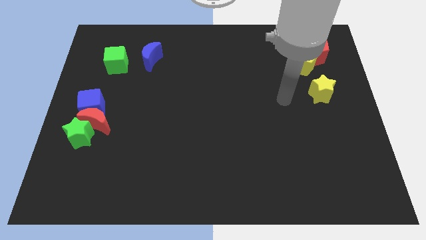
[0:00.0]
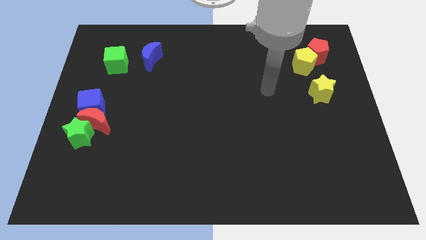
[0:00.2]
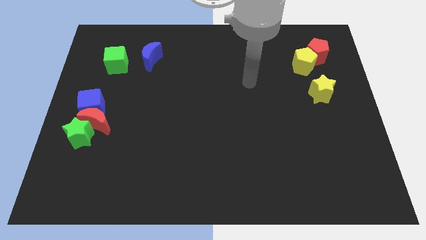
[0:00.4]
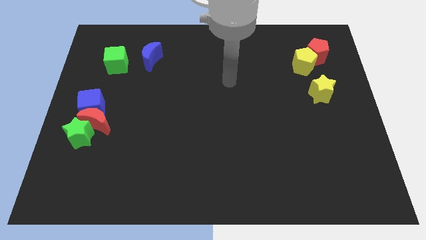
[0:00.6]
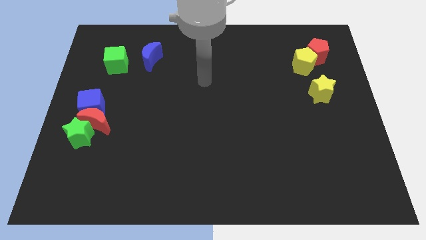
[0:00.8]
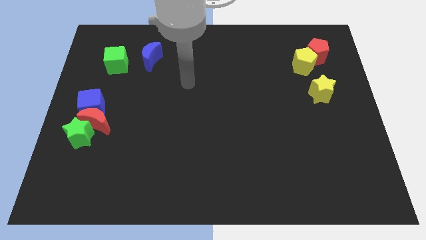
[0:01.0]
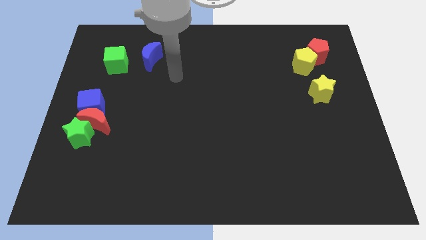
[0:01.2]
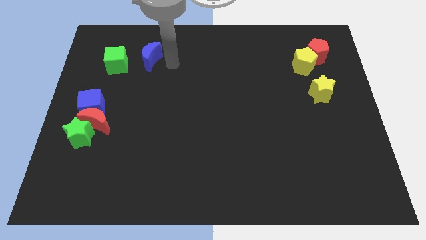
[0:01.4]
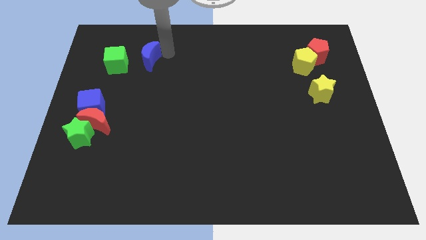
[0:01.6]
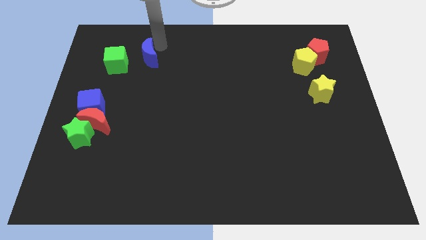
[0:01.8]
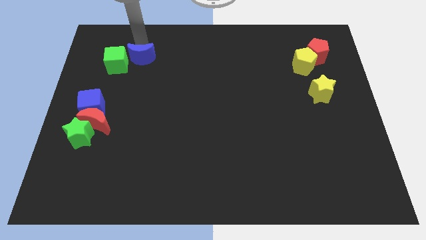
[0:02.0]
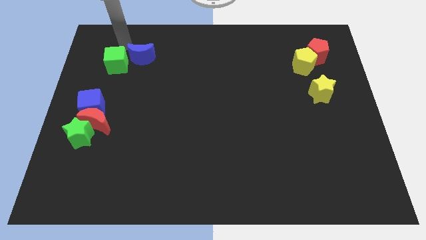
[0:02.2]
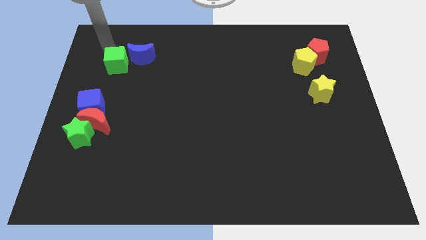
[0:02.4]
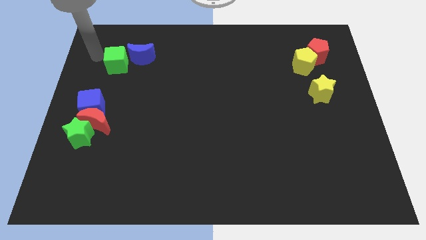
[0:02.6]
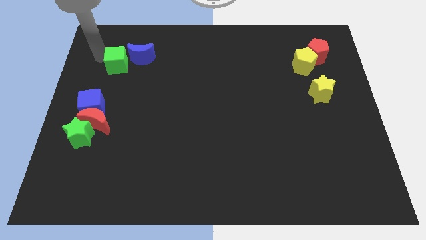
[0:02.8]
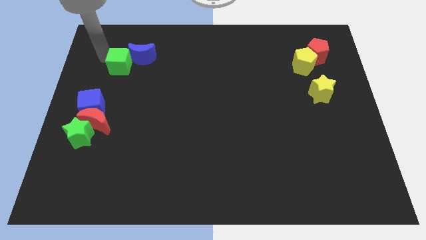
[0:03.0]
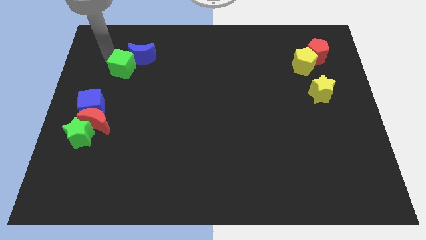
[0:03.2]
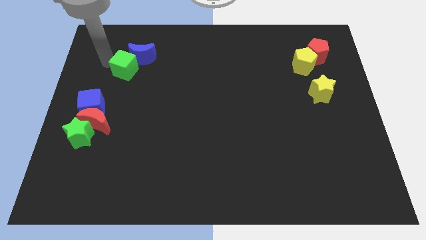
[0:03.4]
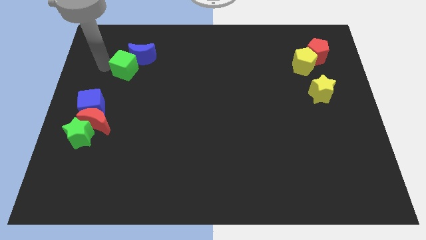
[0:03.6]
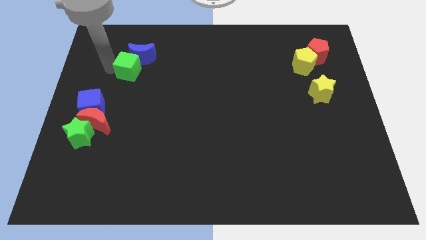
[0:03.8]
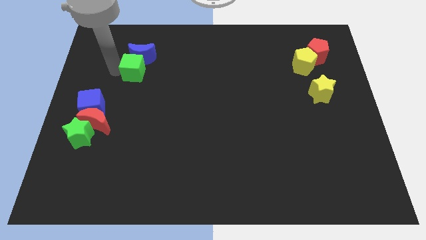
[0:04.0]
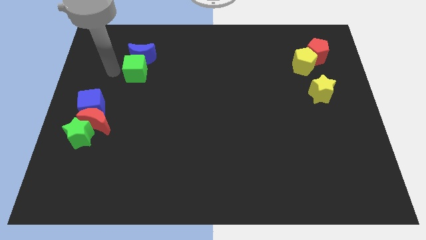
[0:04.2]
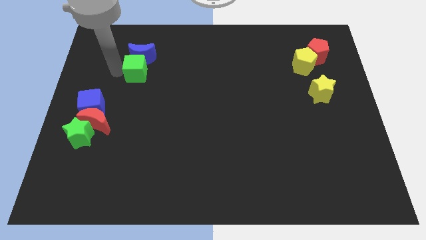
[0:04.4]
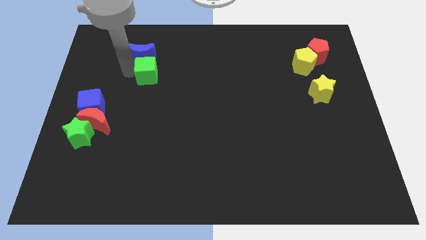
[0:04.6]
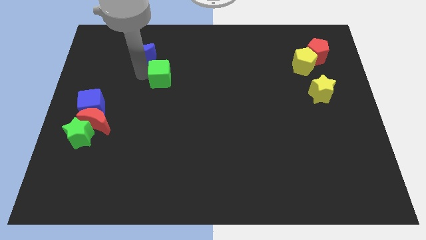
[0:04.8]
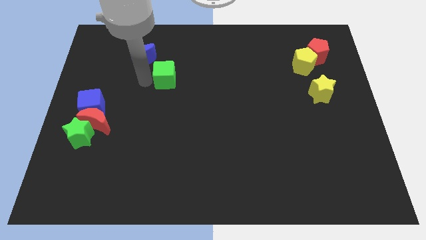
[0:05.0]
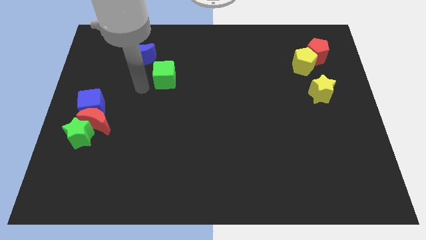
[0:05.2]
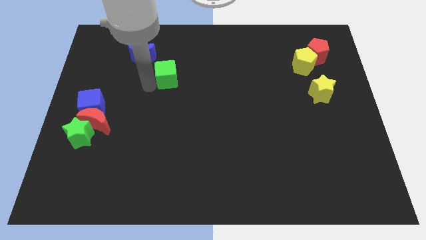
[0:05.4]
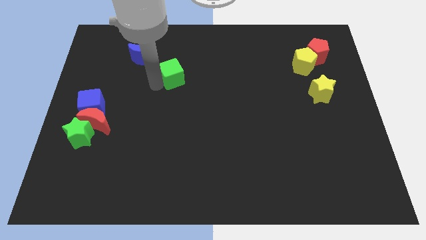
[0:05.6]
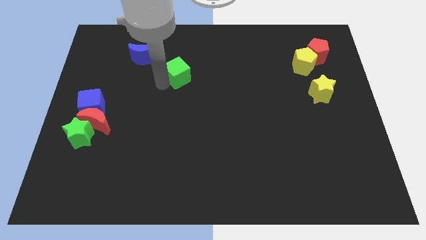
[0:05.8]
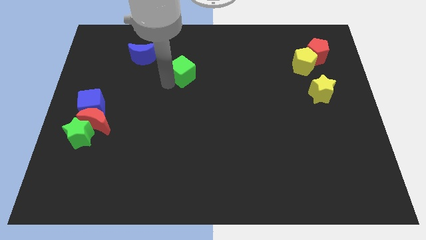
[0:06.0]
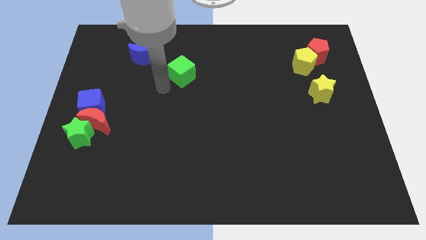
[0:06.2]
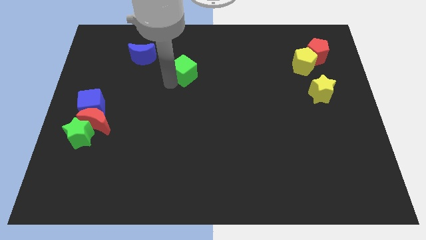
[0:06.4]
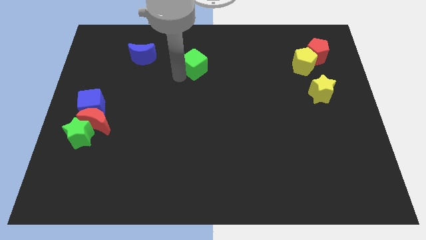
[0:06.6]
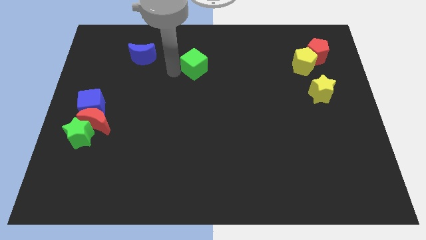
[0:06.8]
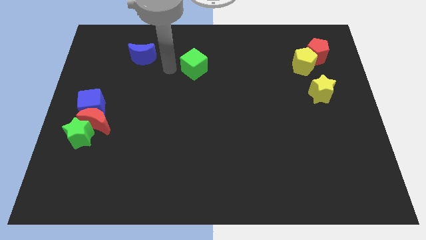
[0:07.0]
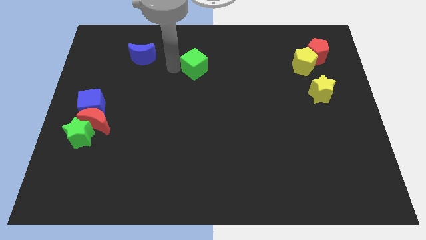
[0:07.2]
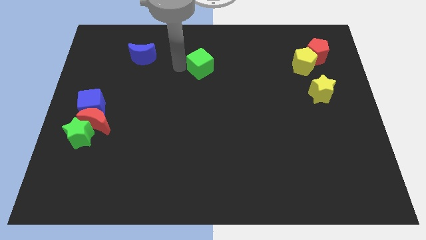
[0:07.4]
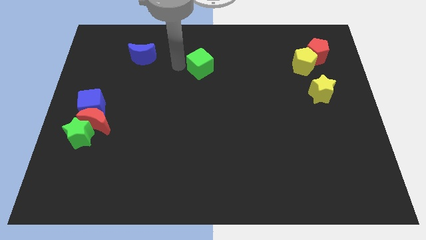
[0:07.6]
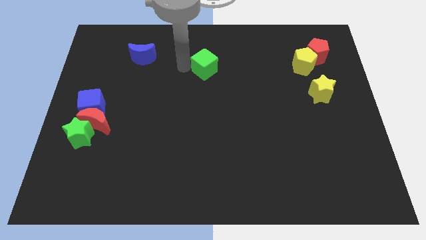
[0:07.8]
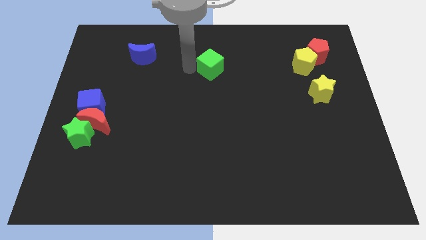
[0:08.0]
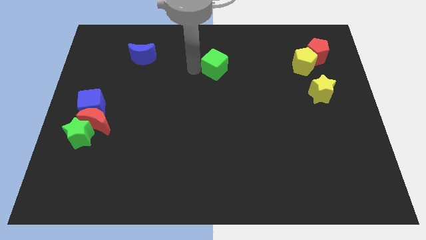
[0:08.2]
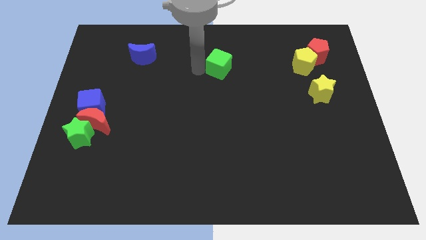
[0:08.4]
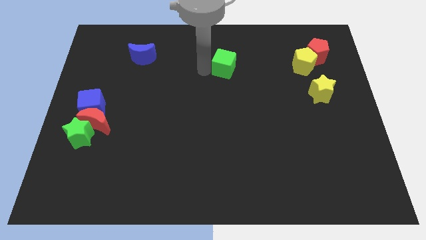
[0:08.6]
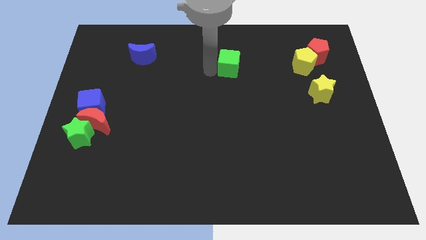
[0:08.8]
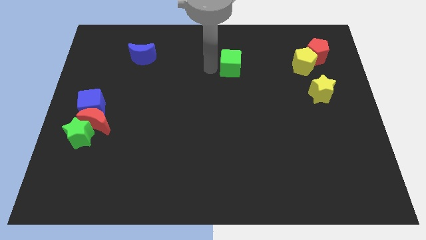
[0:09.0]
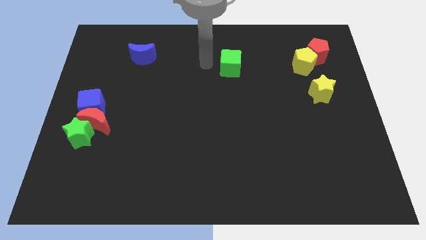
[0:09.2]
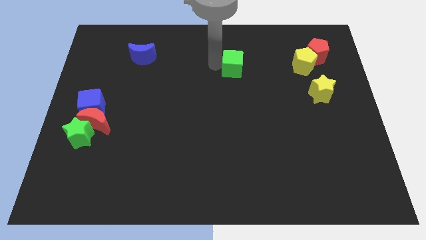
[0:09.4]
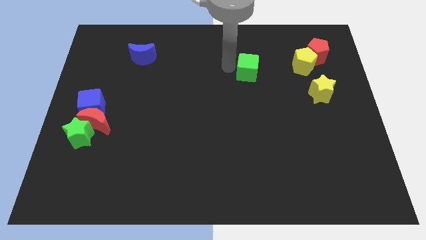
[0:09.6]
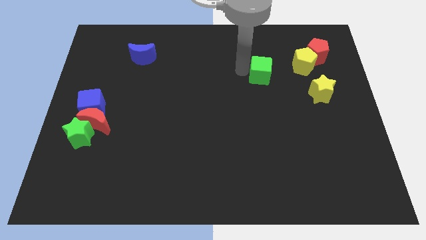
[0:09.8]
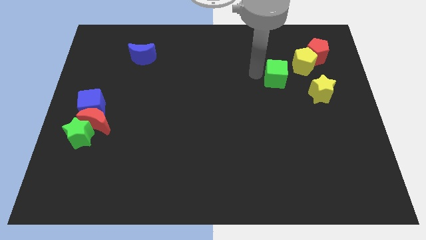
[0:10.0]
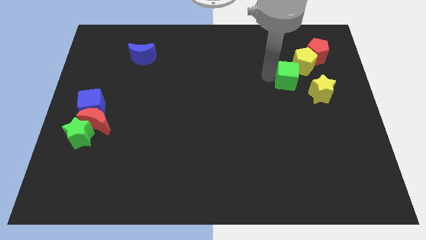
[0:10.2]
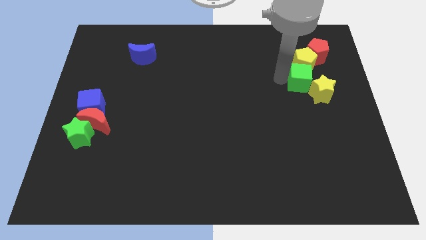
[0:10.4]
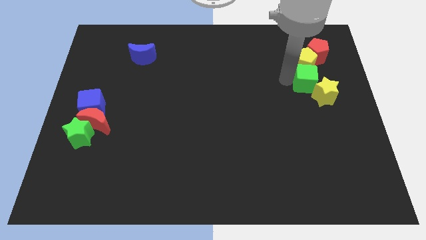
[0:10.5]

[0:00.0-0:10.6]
slide the green cube to the bottom right side of the yellow pentagon

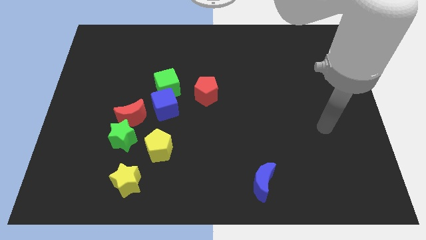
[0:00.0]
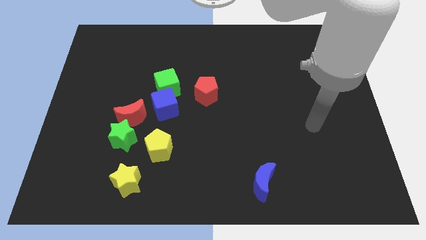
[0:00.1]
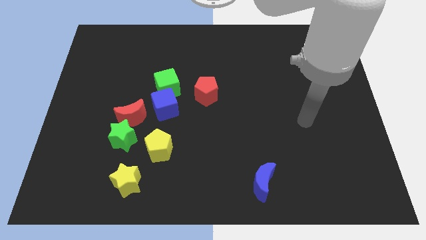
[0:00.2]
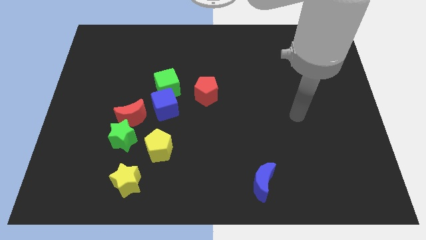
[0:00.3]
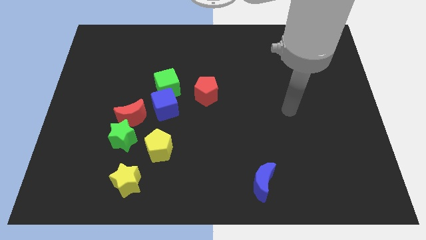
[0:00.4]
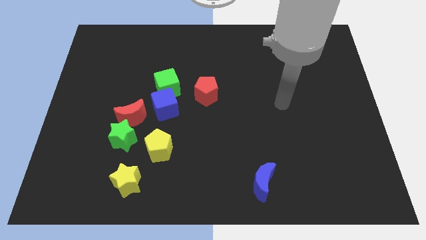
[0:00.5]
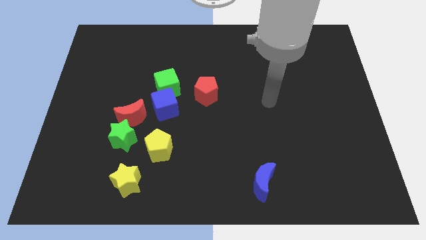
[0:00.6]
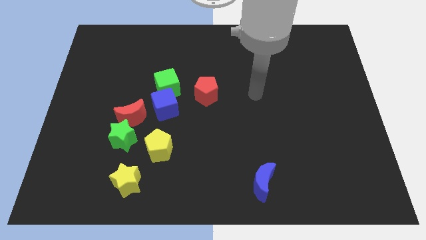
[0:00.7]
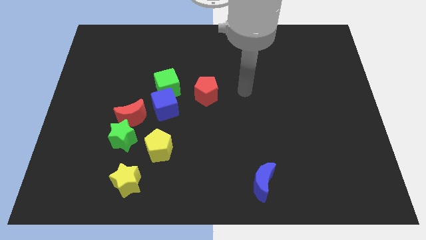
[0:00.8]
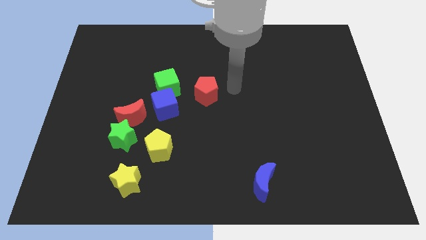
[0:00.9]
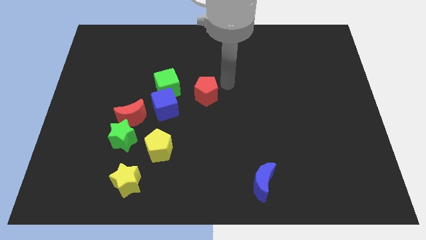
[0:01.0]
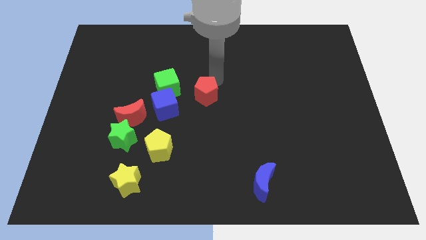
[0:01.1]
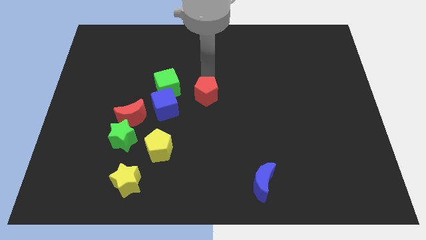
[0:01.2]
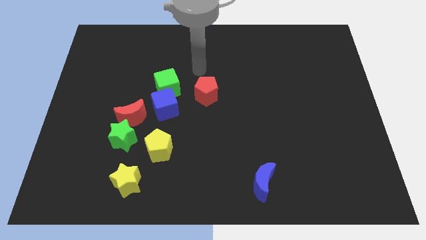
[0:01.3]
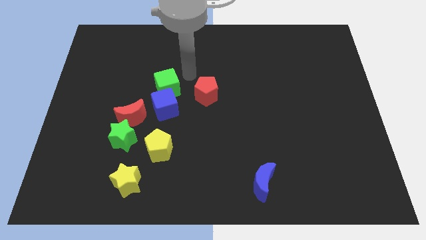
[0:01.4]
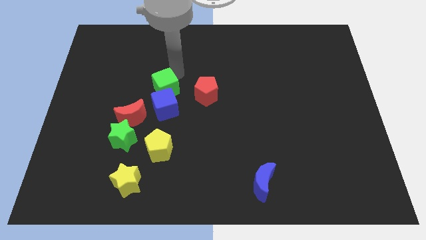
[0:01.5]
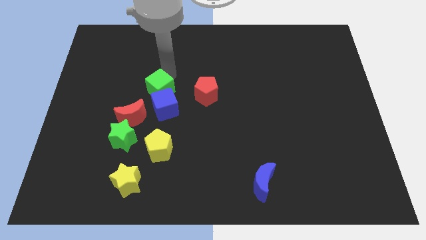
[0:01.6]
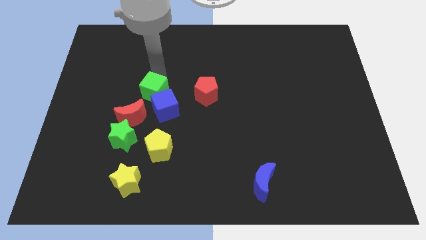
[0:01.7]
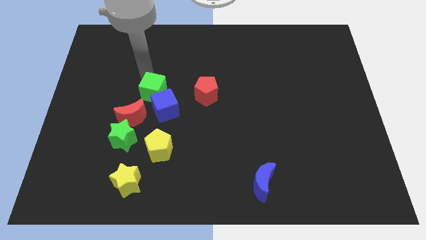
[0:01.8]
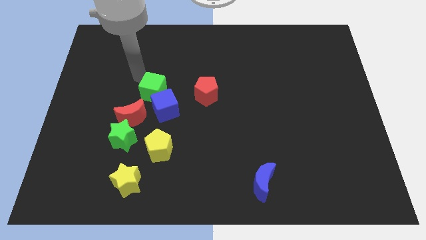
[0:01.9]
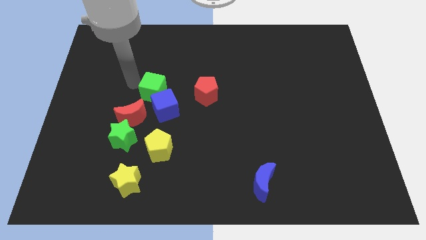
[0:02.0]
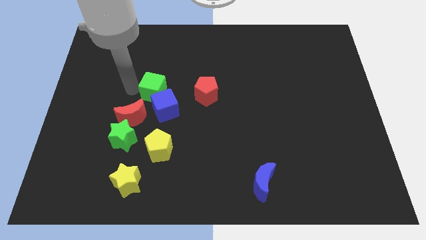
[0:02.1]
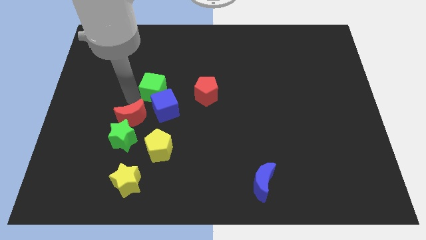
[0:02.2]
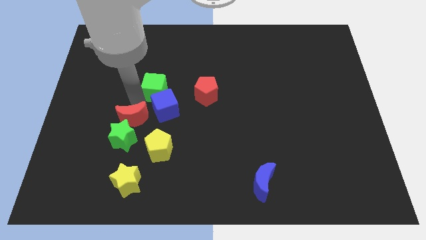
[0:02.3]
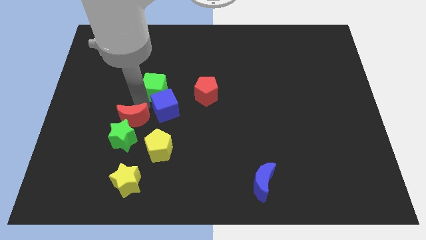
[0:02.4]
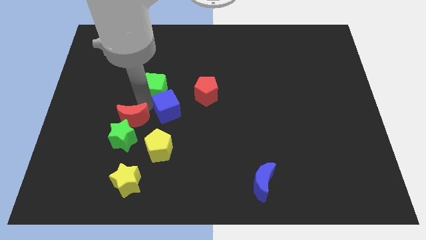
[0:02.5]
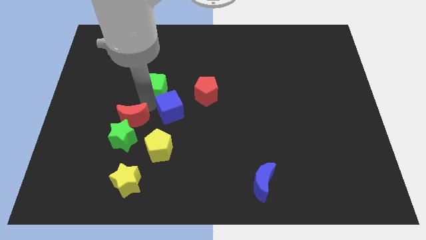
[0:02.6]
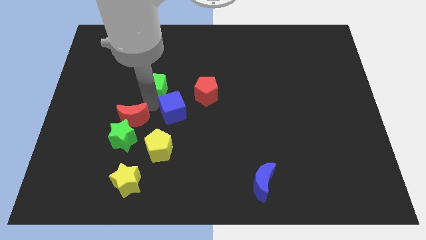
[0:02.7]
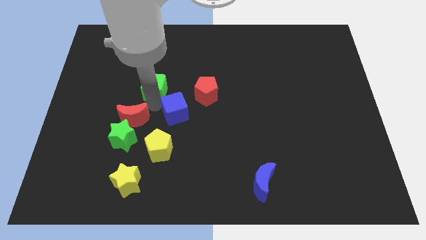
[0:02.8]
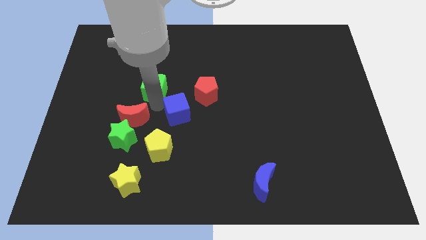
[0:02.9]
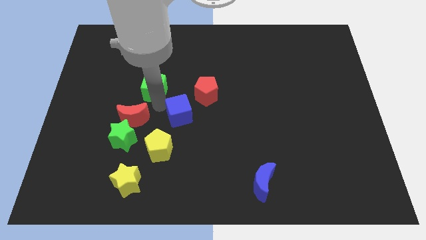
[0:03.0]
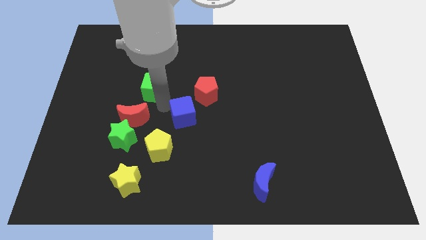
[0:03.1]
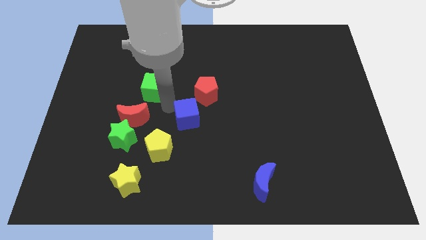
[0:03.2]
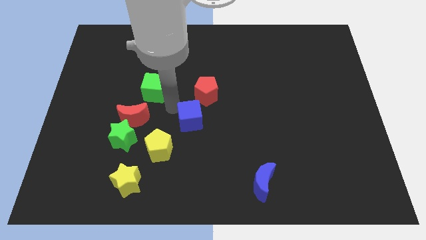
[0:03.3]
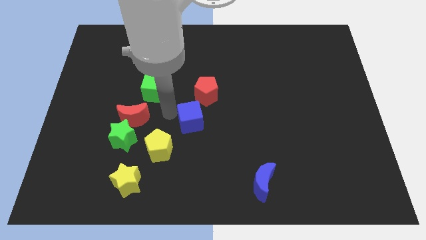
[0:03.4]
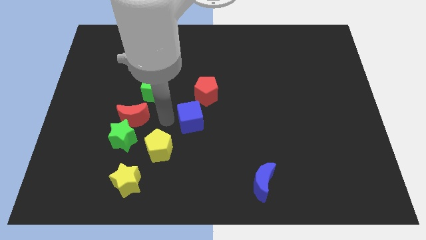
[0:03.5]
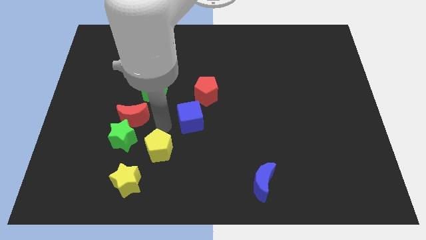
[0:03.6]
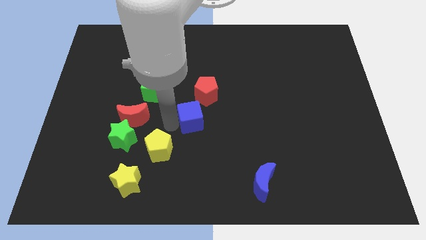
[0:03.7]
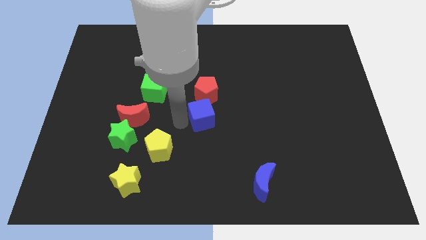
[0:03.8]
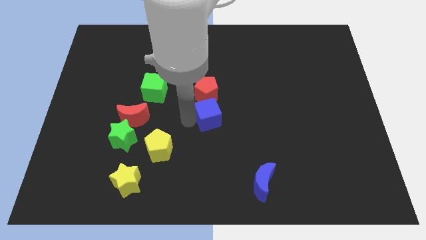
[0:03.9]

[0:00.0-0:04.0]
push the blue cube to the bottom right side of the red pentagon
